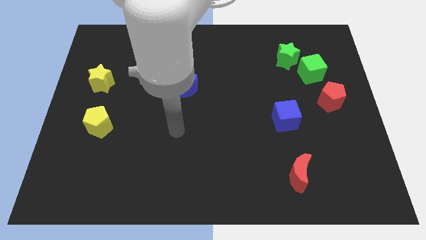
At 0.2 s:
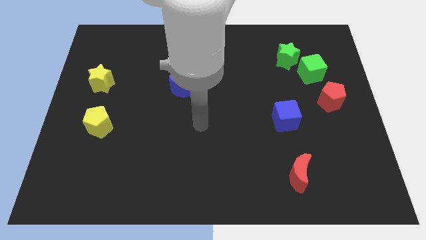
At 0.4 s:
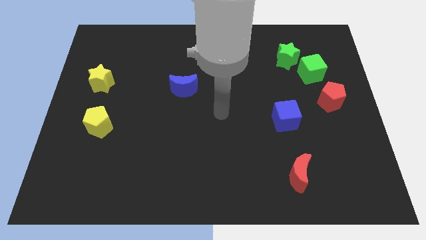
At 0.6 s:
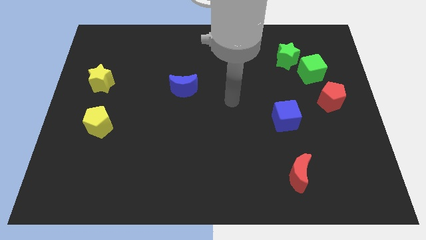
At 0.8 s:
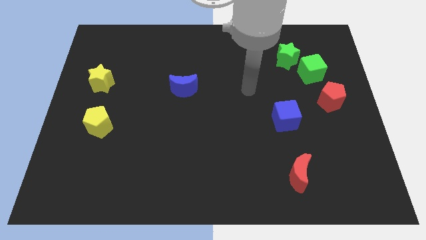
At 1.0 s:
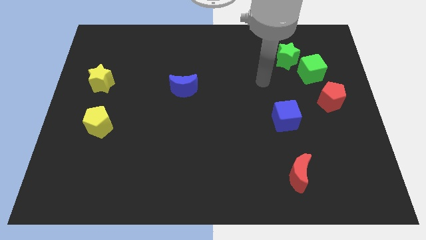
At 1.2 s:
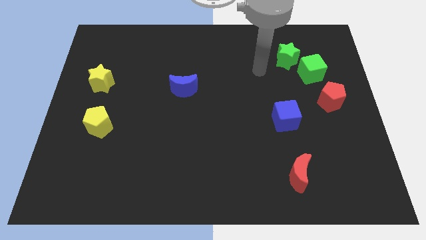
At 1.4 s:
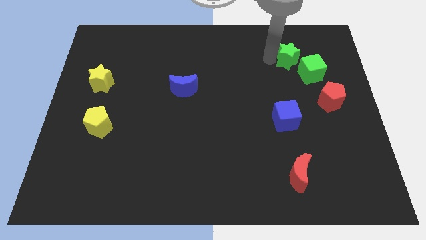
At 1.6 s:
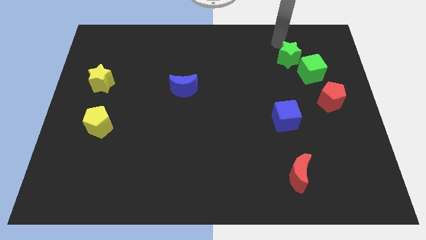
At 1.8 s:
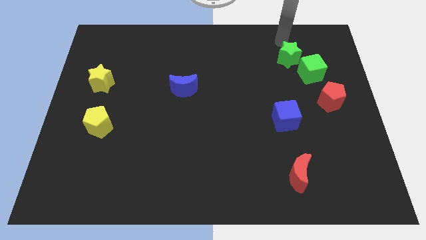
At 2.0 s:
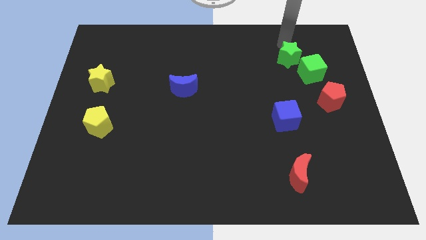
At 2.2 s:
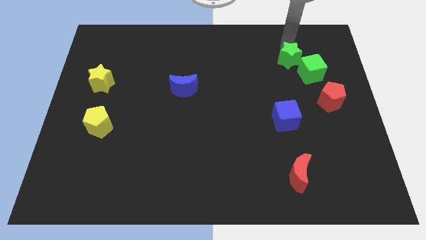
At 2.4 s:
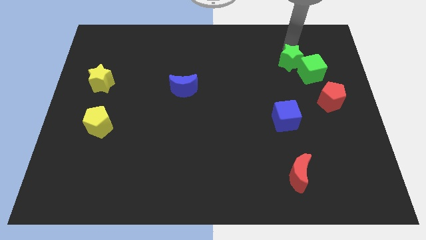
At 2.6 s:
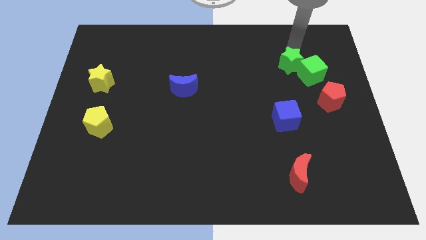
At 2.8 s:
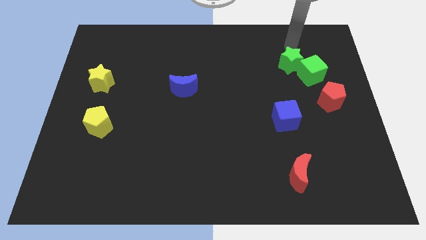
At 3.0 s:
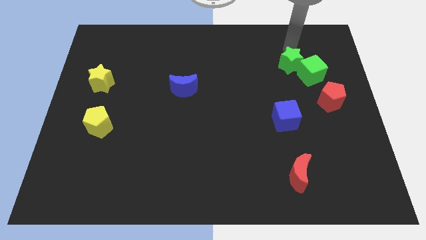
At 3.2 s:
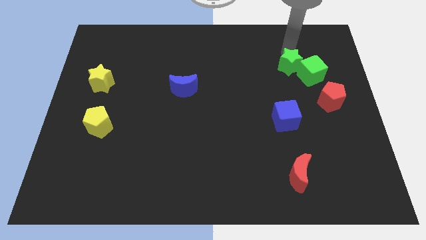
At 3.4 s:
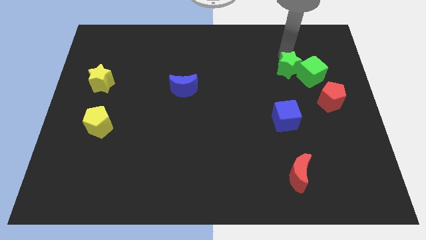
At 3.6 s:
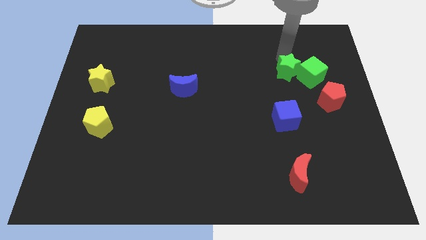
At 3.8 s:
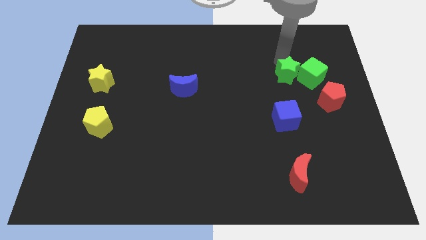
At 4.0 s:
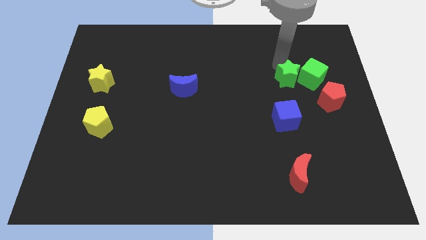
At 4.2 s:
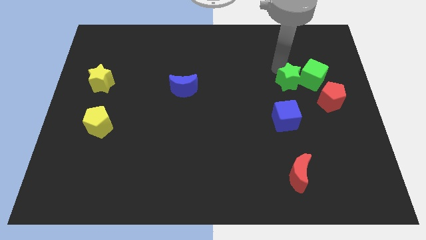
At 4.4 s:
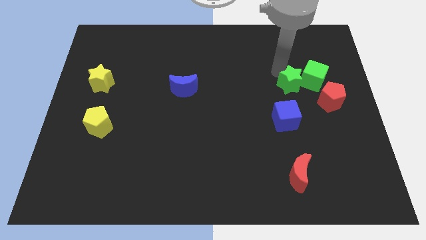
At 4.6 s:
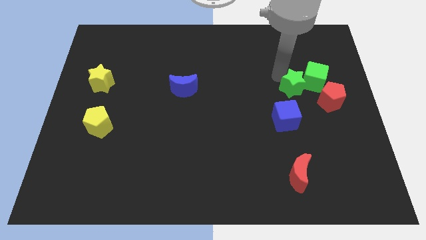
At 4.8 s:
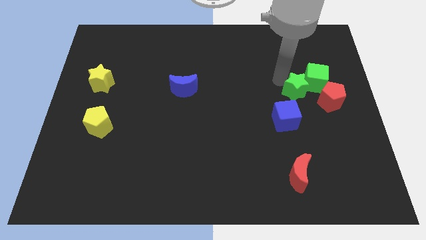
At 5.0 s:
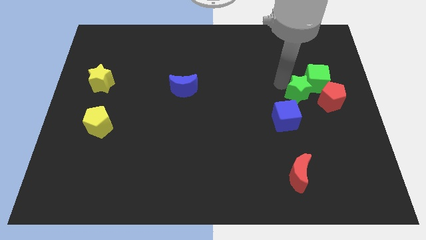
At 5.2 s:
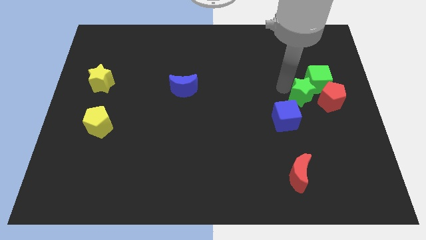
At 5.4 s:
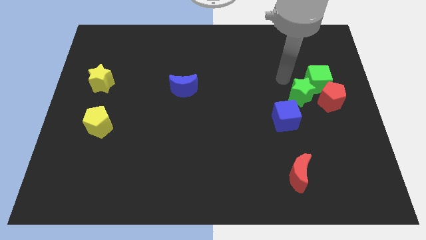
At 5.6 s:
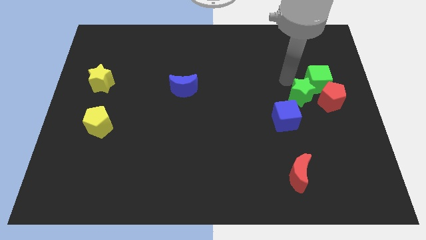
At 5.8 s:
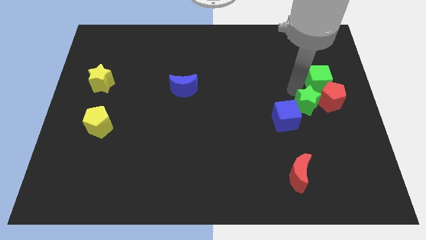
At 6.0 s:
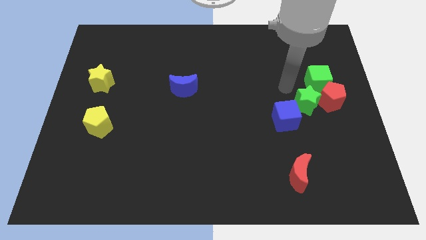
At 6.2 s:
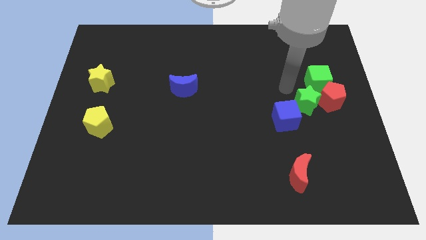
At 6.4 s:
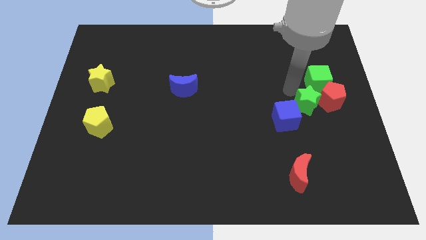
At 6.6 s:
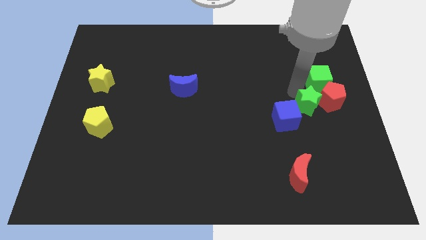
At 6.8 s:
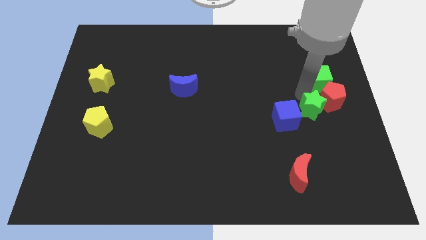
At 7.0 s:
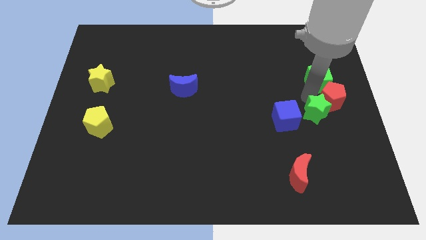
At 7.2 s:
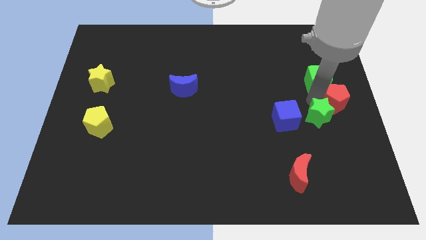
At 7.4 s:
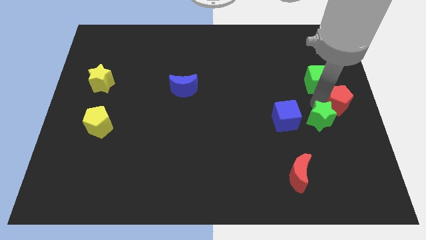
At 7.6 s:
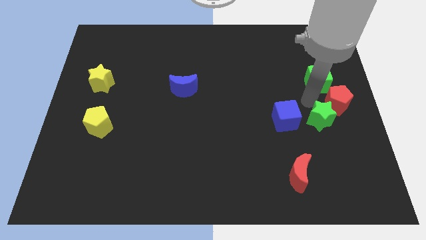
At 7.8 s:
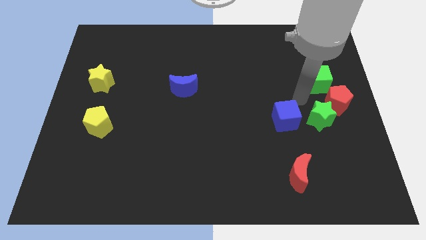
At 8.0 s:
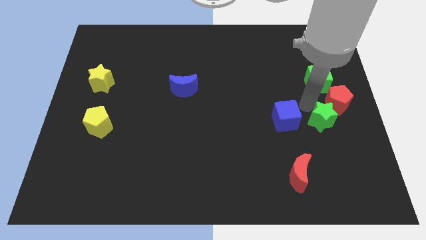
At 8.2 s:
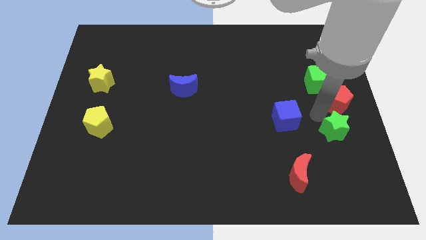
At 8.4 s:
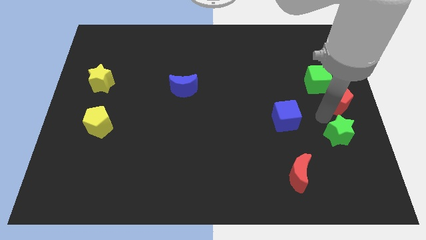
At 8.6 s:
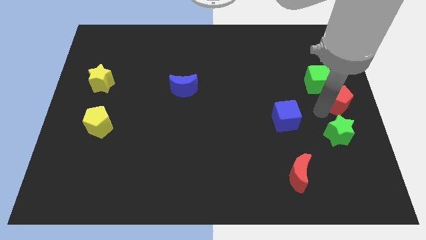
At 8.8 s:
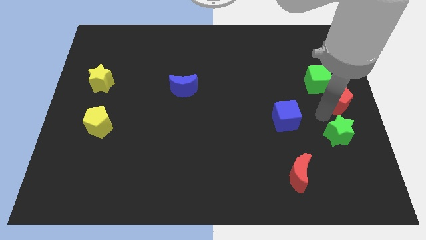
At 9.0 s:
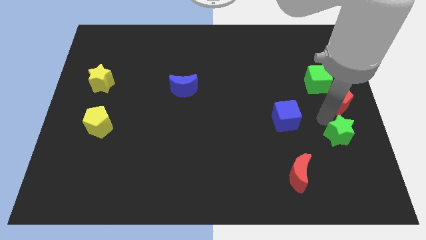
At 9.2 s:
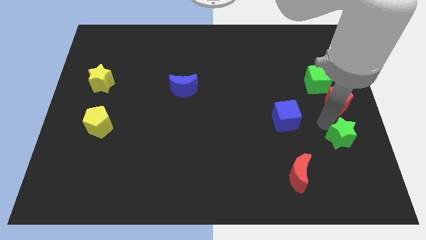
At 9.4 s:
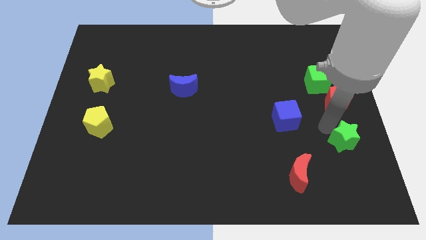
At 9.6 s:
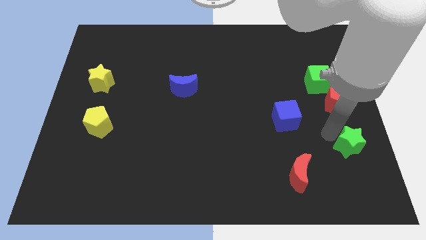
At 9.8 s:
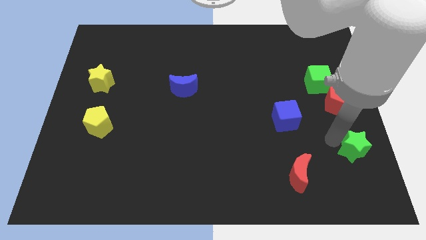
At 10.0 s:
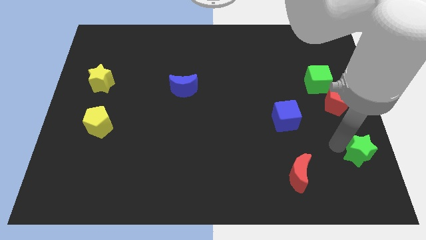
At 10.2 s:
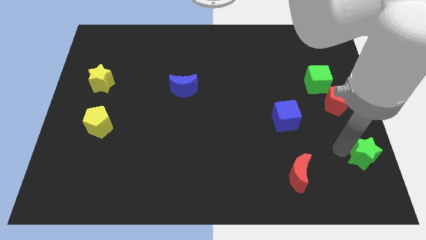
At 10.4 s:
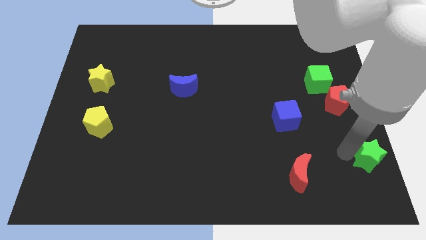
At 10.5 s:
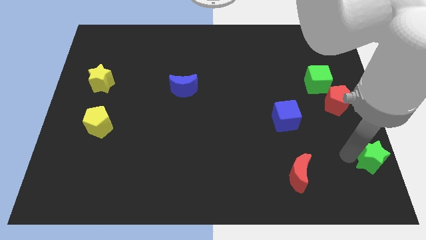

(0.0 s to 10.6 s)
slide the green star to the bottom right

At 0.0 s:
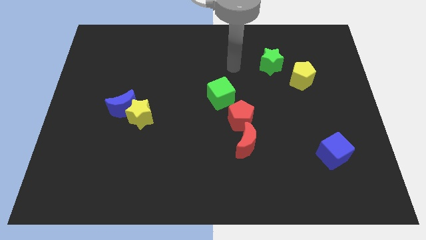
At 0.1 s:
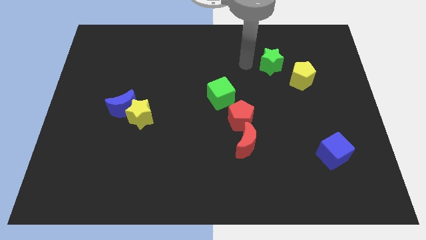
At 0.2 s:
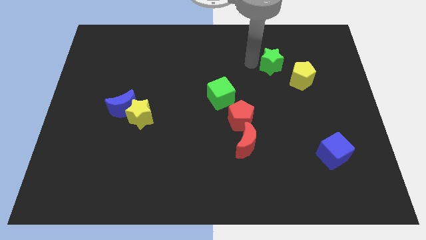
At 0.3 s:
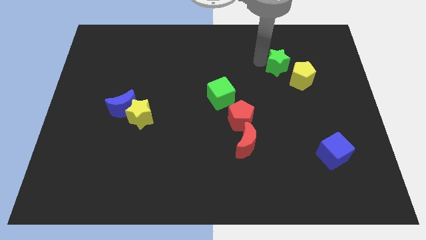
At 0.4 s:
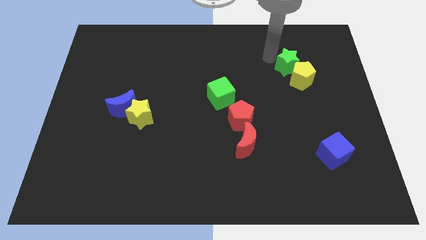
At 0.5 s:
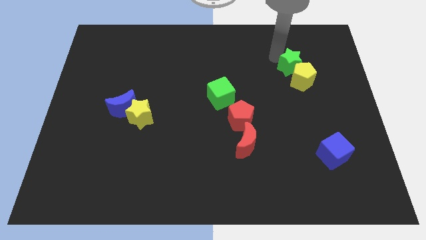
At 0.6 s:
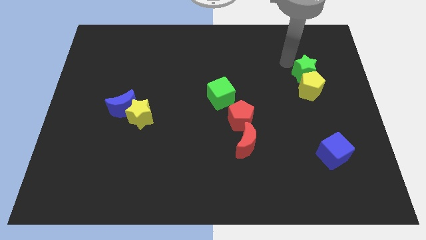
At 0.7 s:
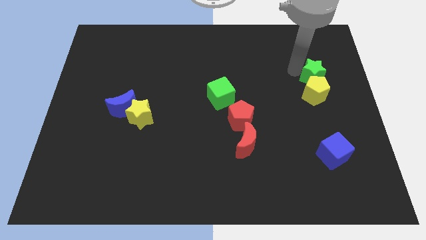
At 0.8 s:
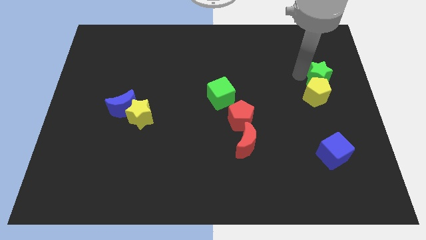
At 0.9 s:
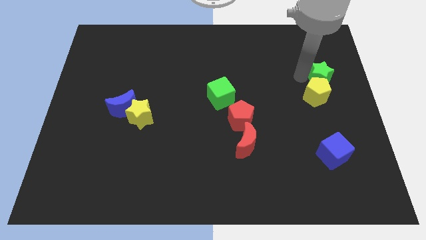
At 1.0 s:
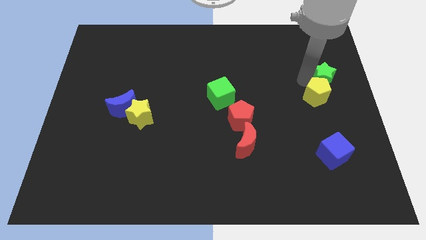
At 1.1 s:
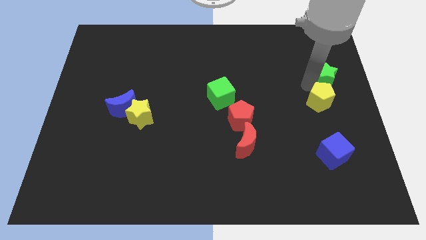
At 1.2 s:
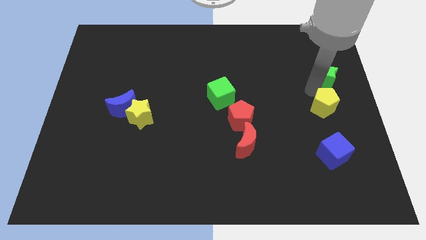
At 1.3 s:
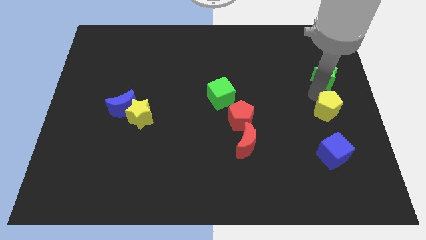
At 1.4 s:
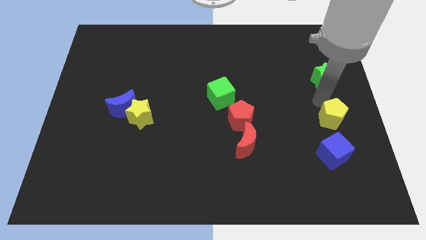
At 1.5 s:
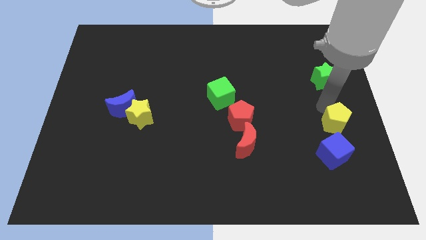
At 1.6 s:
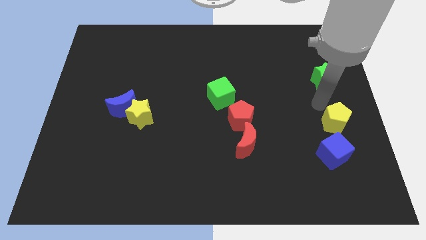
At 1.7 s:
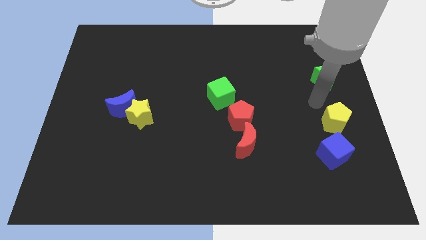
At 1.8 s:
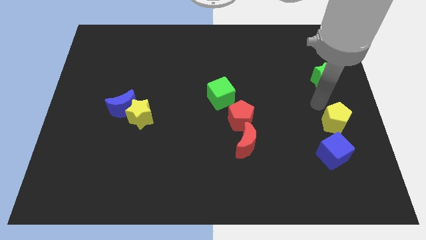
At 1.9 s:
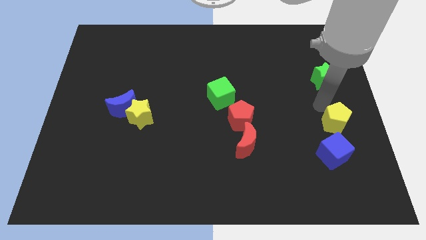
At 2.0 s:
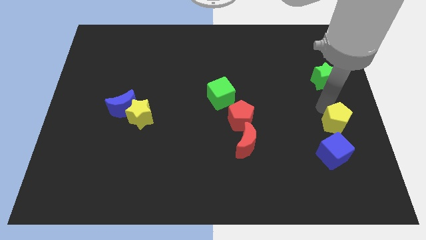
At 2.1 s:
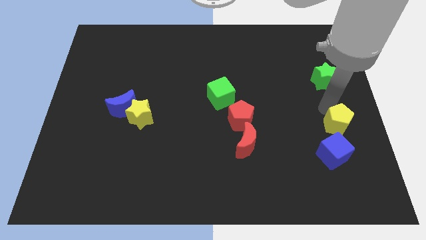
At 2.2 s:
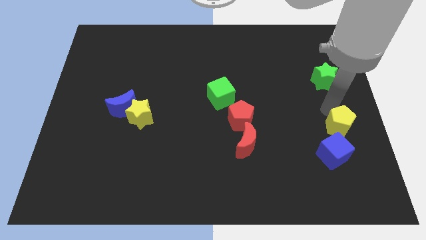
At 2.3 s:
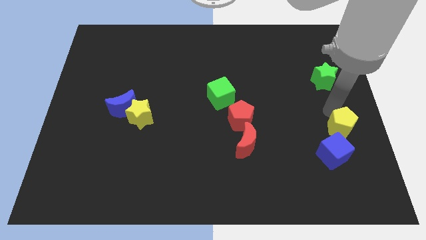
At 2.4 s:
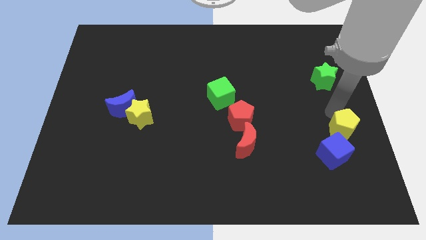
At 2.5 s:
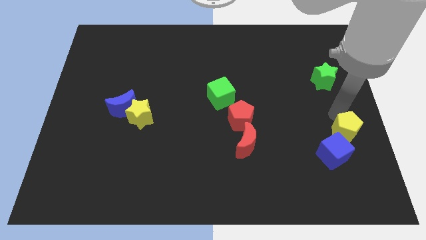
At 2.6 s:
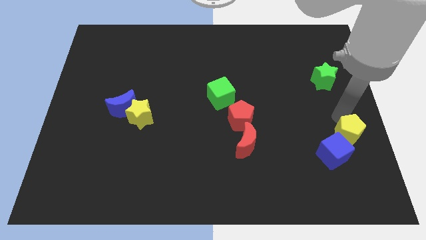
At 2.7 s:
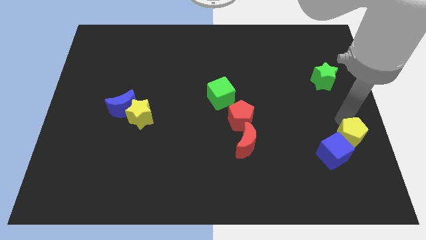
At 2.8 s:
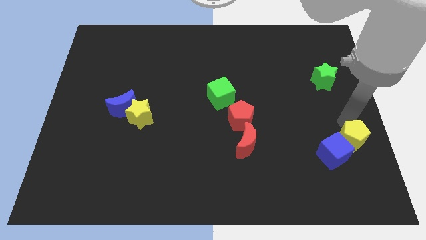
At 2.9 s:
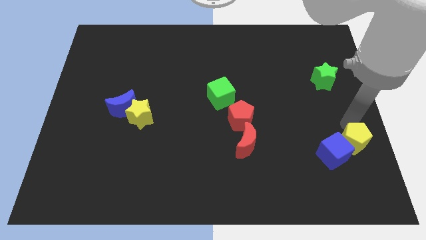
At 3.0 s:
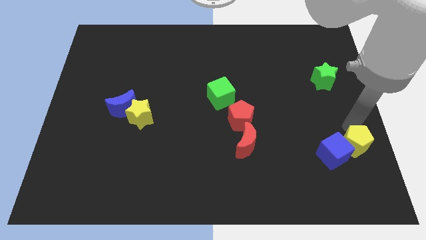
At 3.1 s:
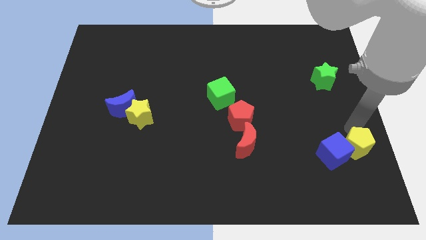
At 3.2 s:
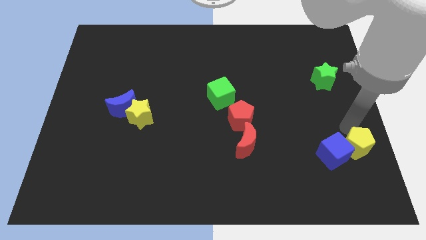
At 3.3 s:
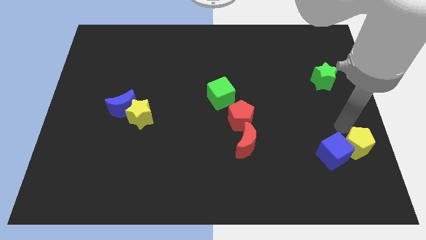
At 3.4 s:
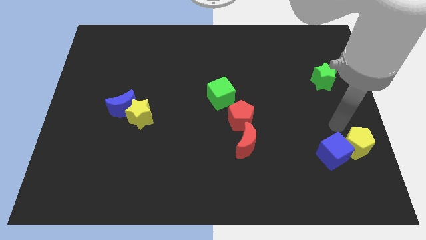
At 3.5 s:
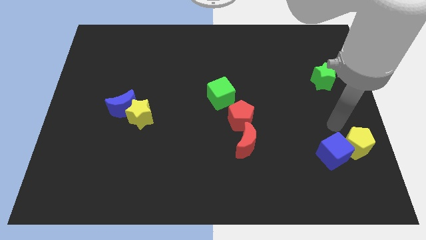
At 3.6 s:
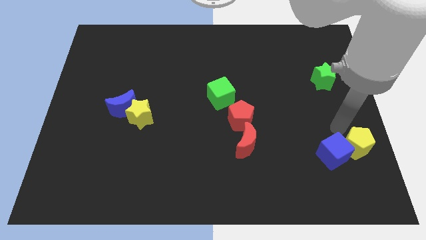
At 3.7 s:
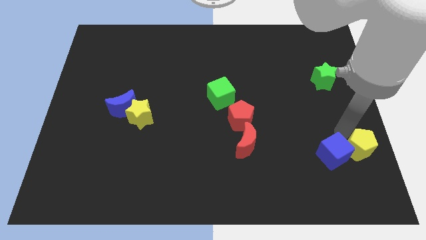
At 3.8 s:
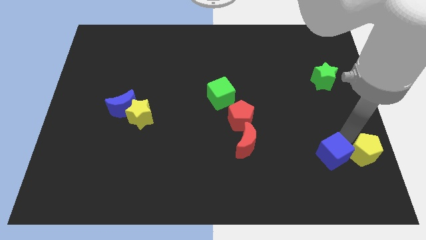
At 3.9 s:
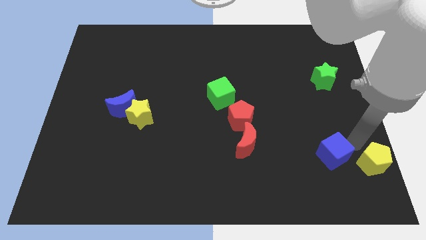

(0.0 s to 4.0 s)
put the yellow pentagon to the bottom right corner
